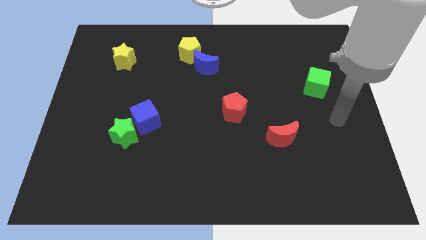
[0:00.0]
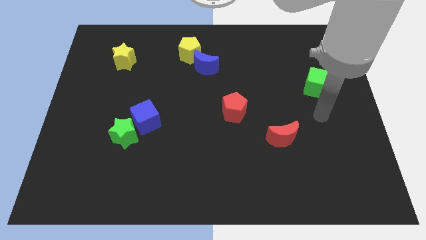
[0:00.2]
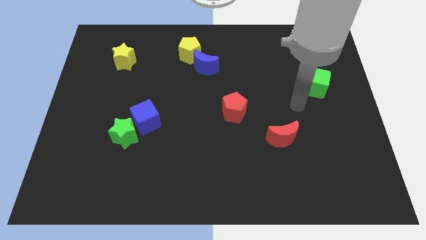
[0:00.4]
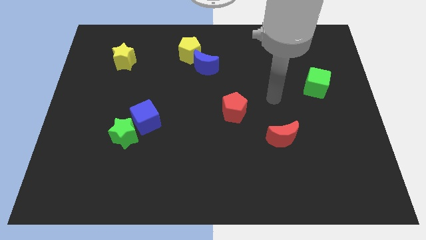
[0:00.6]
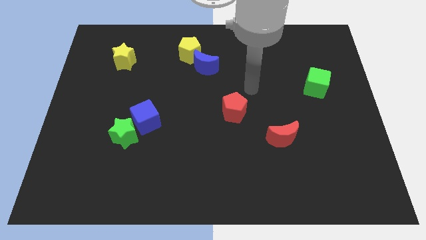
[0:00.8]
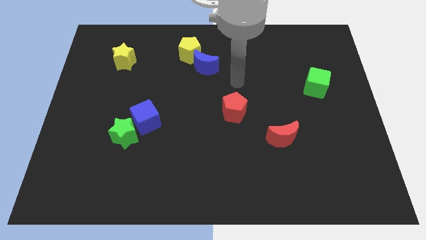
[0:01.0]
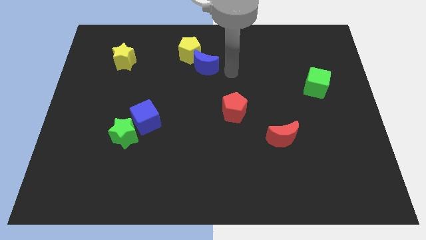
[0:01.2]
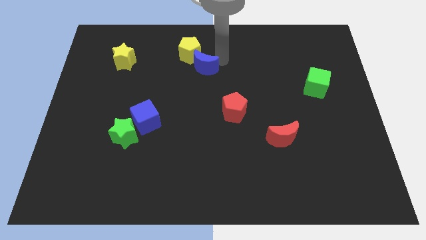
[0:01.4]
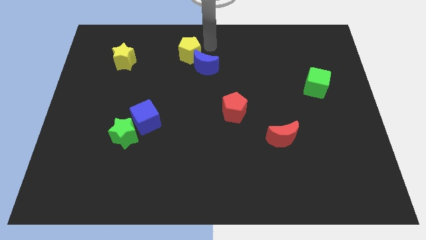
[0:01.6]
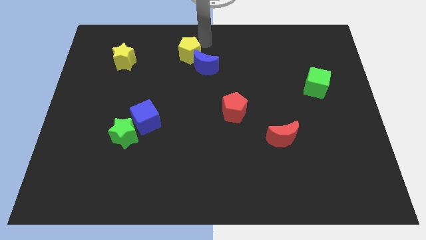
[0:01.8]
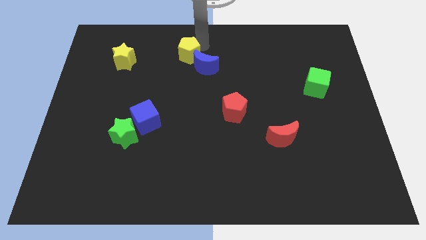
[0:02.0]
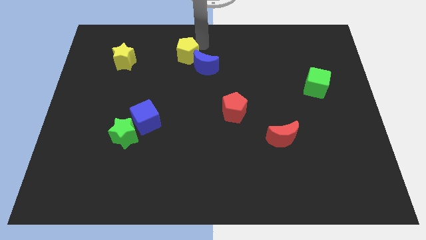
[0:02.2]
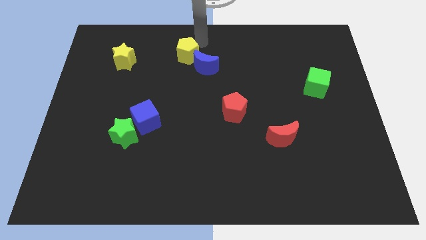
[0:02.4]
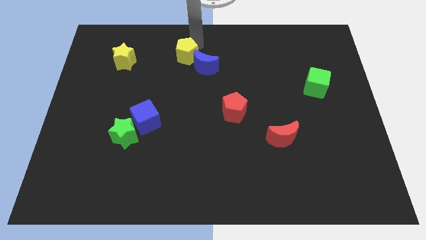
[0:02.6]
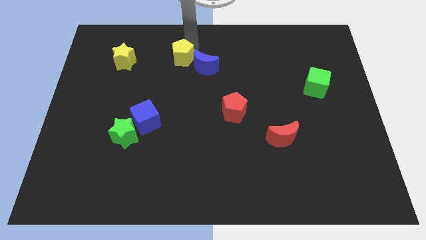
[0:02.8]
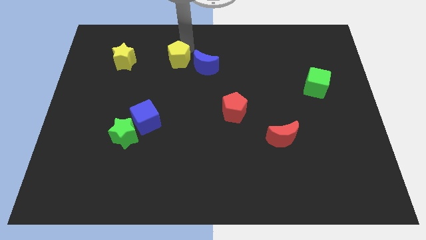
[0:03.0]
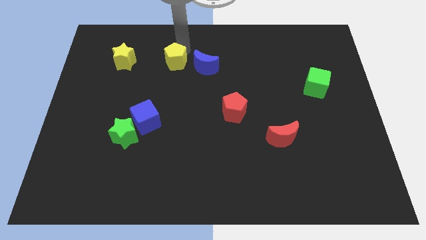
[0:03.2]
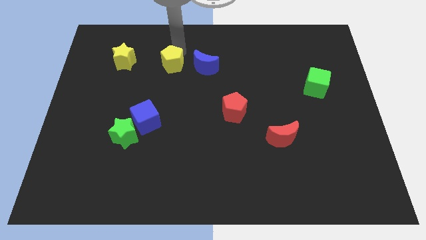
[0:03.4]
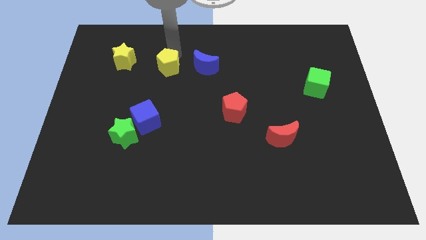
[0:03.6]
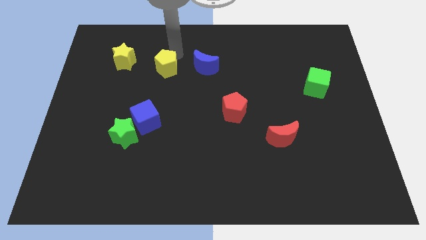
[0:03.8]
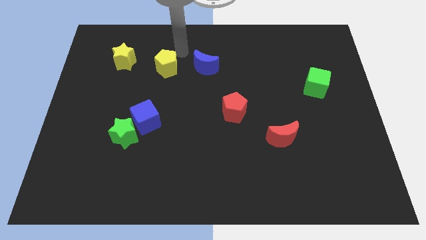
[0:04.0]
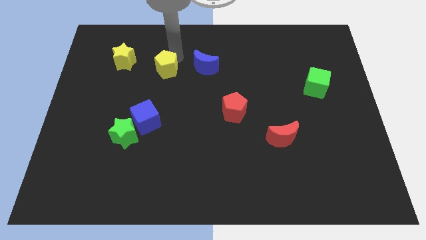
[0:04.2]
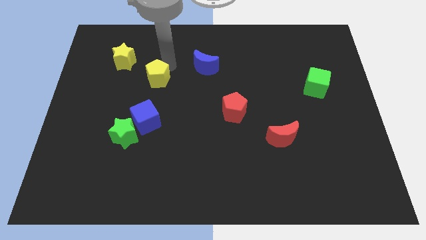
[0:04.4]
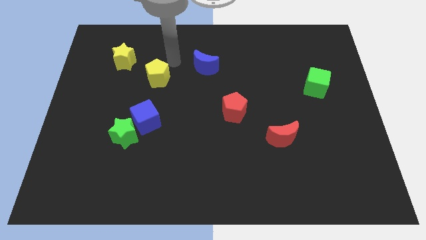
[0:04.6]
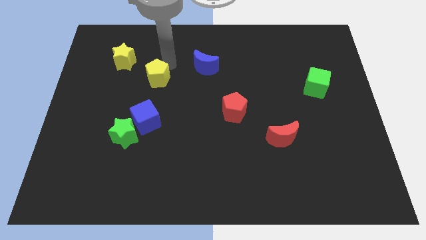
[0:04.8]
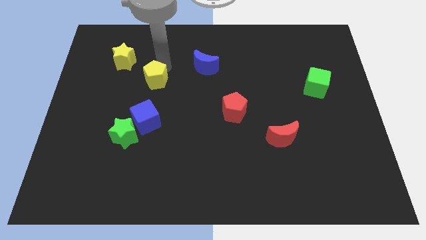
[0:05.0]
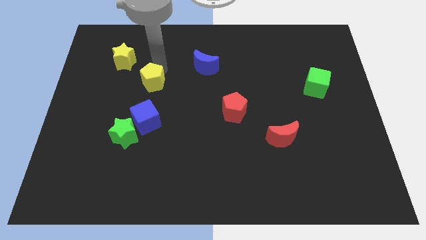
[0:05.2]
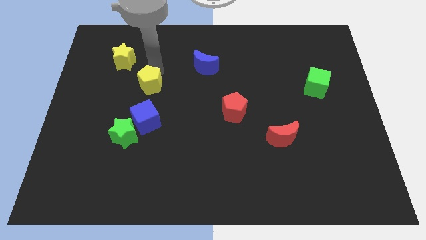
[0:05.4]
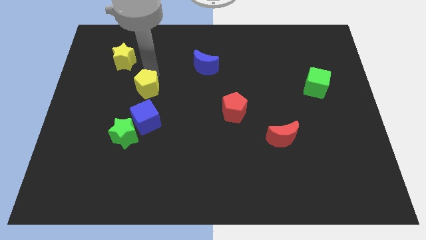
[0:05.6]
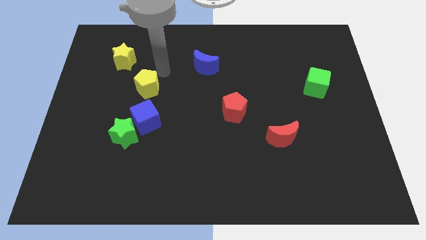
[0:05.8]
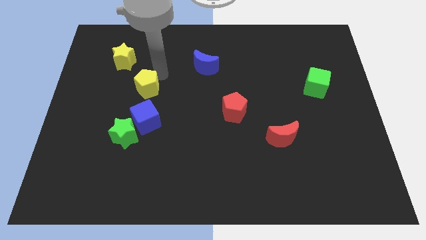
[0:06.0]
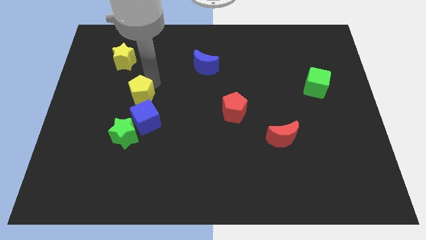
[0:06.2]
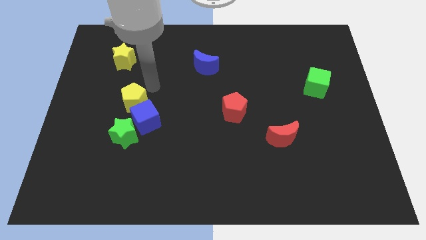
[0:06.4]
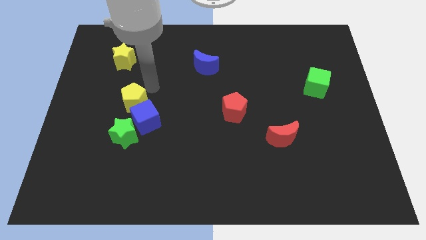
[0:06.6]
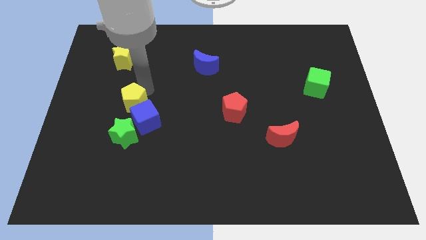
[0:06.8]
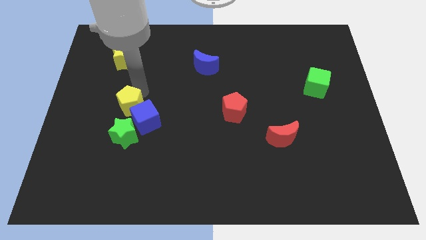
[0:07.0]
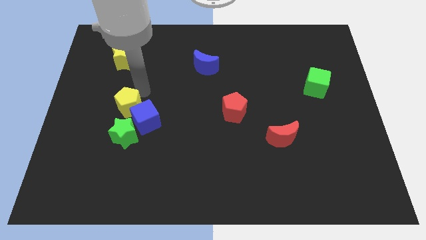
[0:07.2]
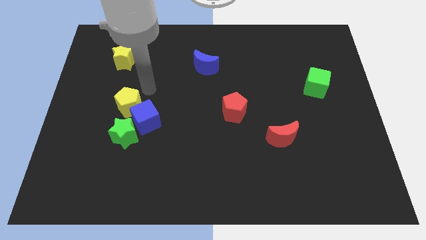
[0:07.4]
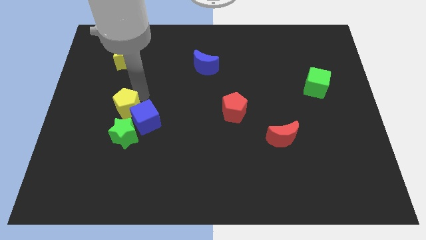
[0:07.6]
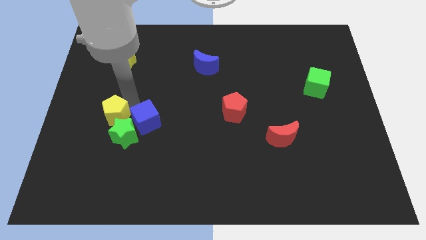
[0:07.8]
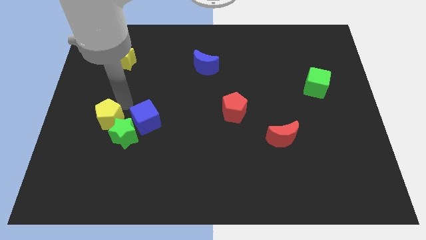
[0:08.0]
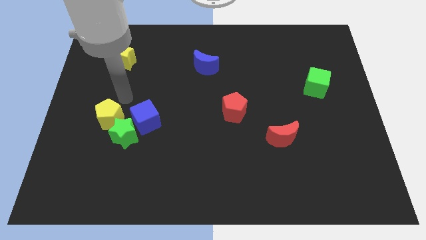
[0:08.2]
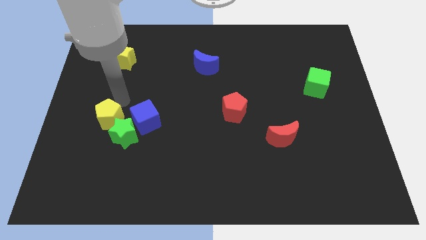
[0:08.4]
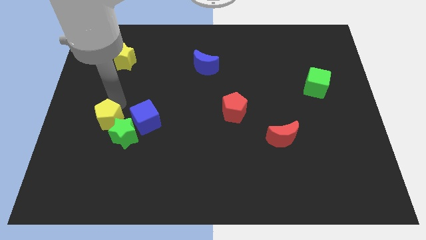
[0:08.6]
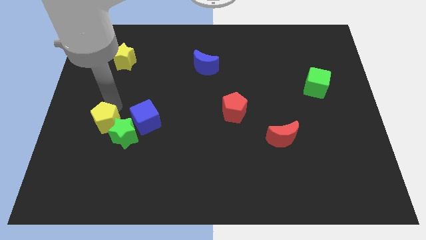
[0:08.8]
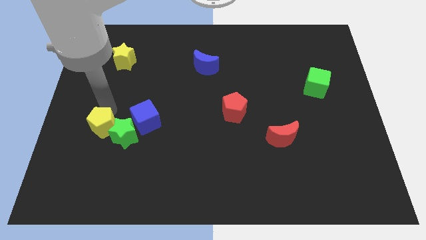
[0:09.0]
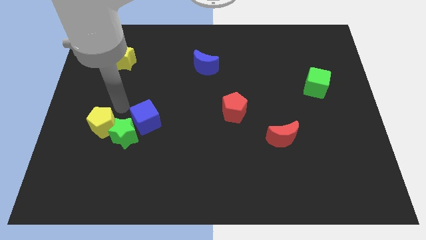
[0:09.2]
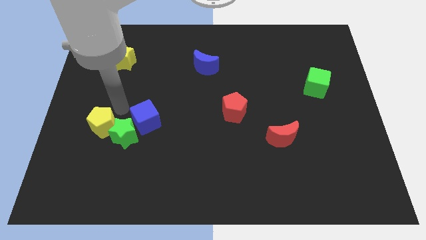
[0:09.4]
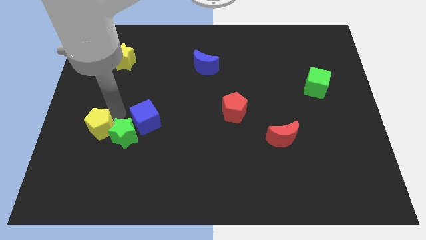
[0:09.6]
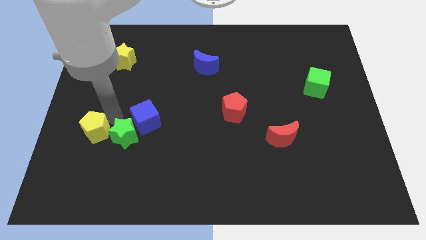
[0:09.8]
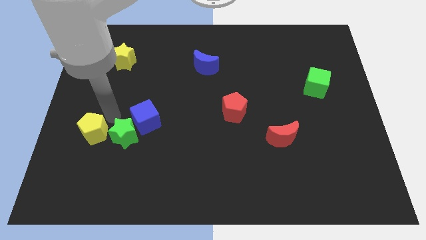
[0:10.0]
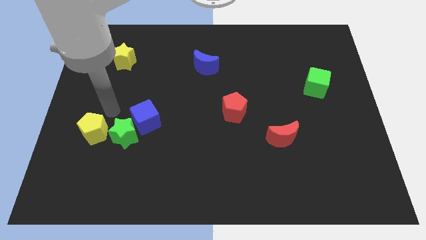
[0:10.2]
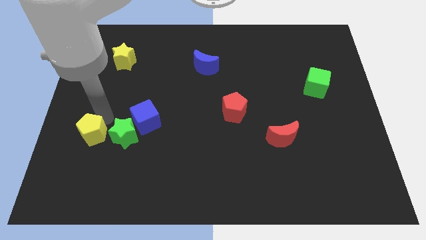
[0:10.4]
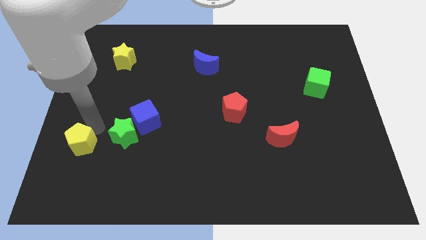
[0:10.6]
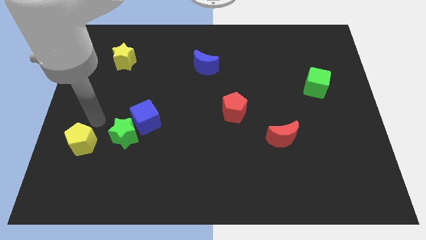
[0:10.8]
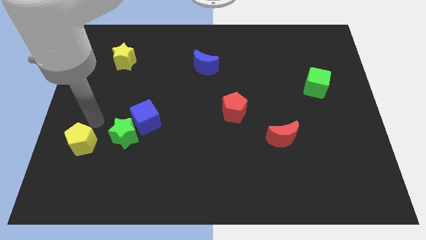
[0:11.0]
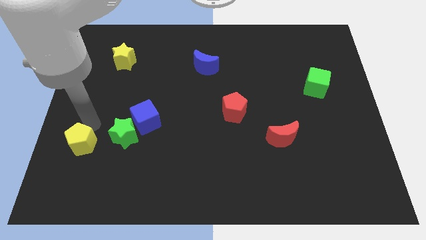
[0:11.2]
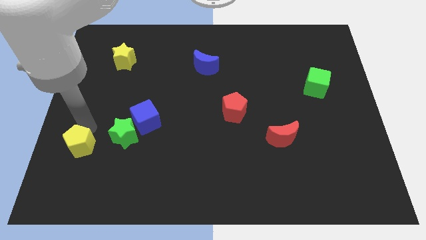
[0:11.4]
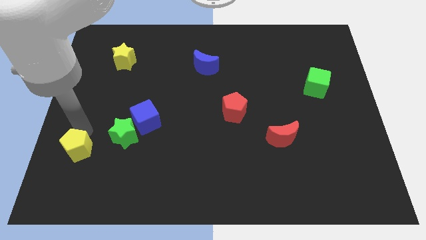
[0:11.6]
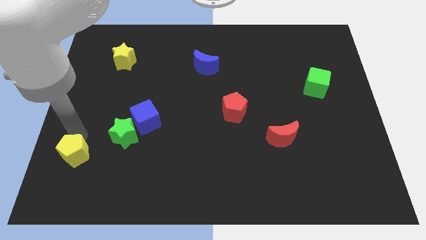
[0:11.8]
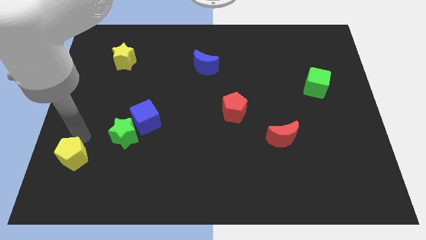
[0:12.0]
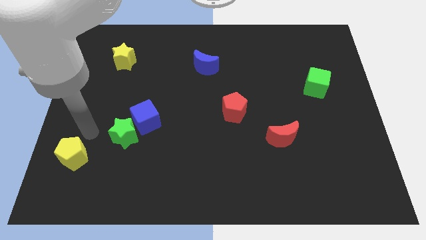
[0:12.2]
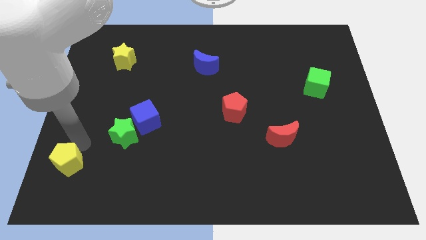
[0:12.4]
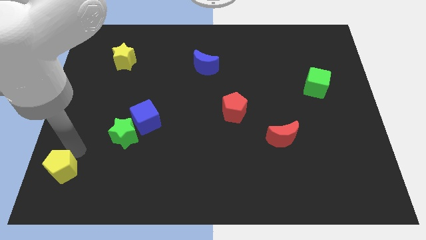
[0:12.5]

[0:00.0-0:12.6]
put the yellow pentagon to the bottom left
